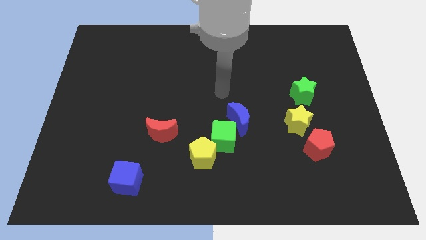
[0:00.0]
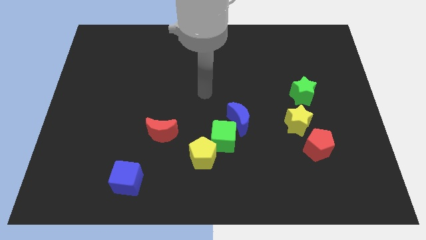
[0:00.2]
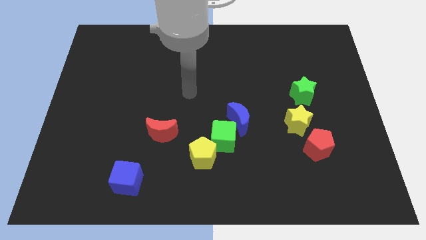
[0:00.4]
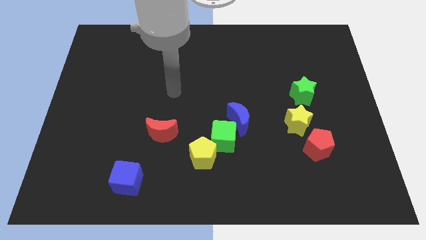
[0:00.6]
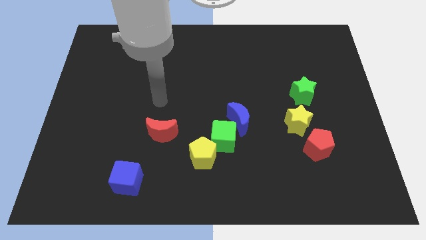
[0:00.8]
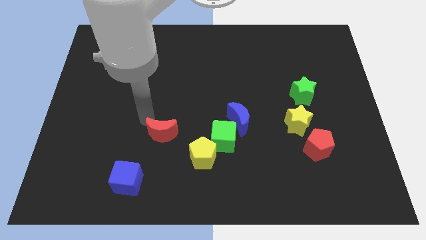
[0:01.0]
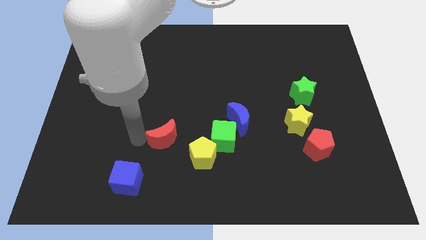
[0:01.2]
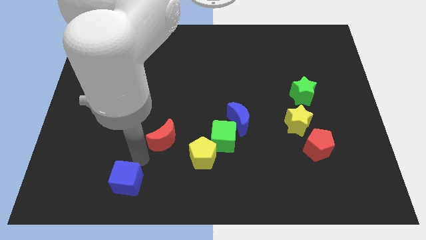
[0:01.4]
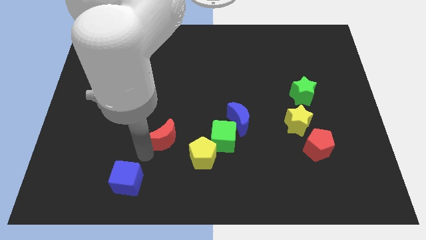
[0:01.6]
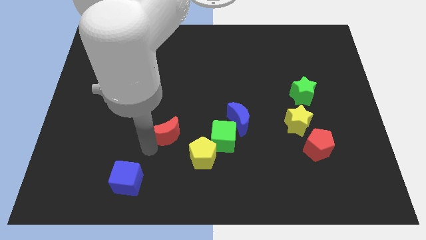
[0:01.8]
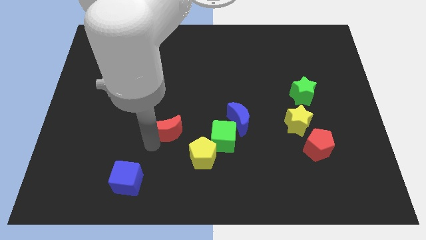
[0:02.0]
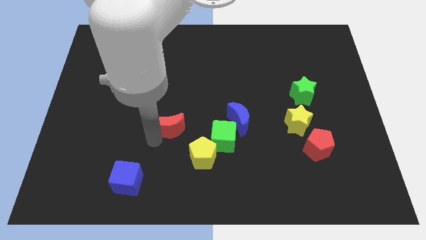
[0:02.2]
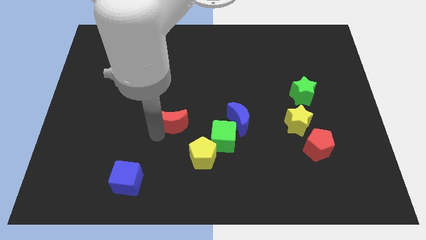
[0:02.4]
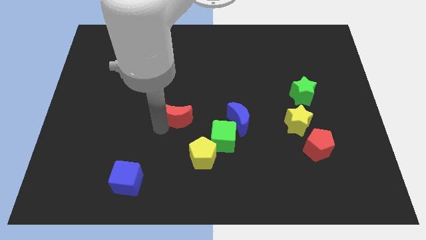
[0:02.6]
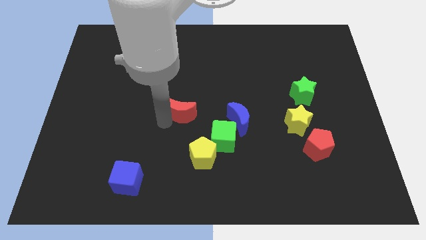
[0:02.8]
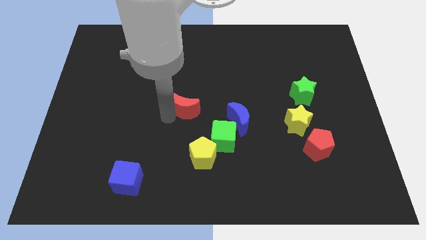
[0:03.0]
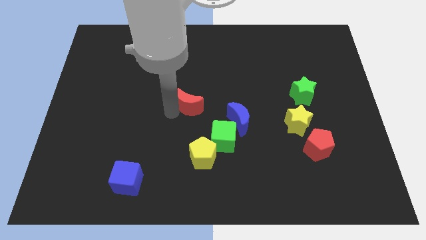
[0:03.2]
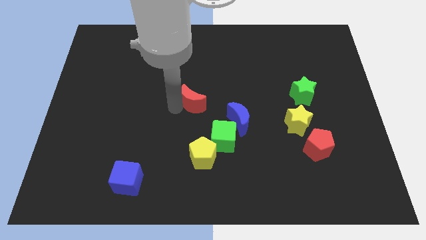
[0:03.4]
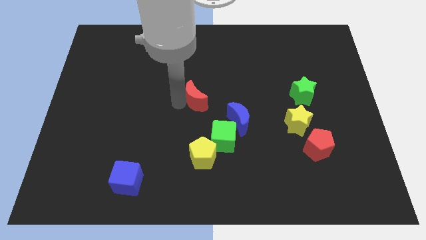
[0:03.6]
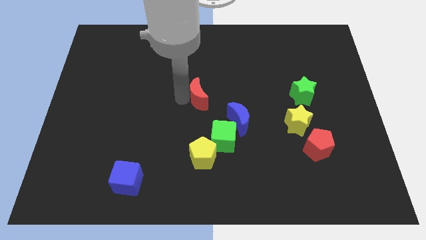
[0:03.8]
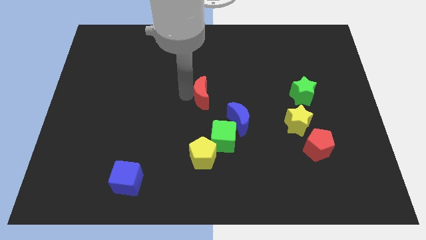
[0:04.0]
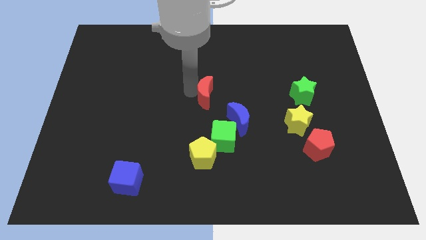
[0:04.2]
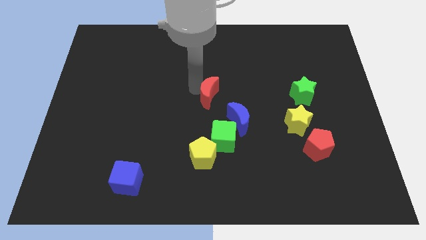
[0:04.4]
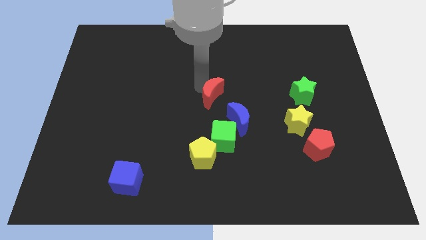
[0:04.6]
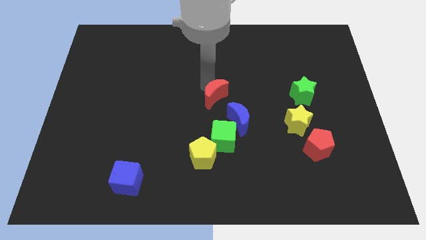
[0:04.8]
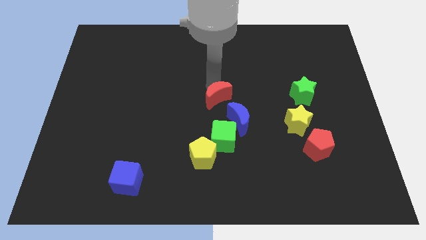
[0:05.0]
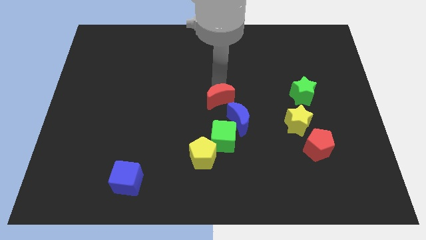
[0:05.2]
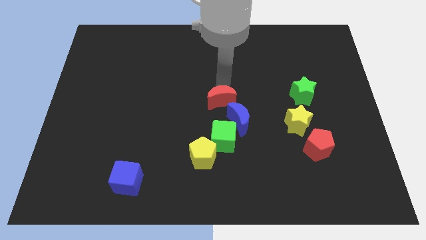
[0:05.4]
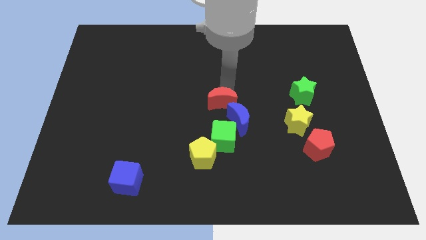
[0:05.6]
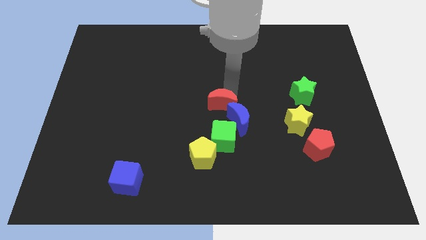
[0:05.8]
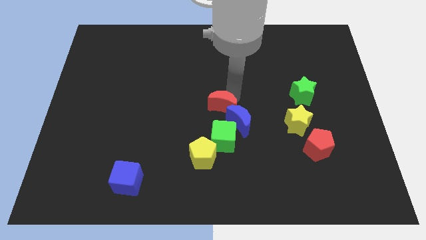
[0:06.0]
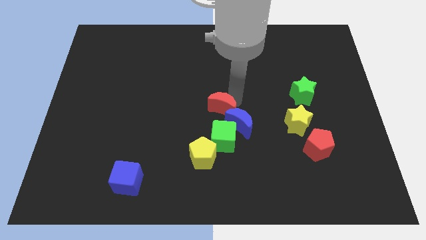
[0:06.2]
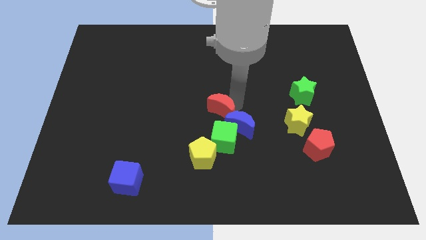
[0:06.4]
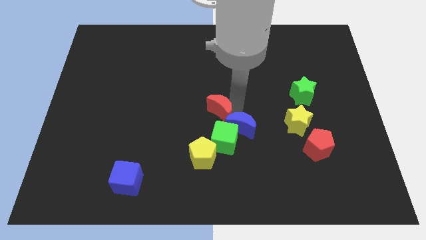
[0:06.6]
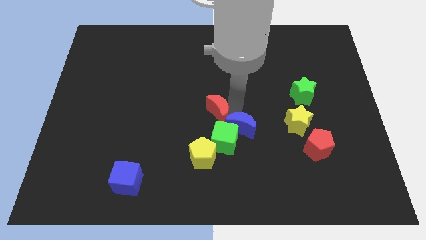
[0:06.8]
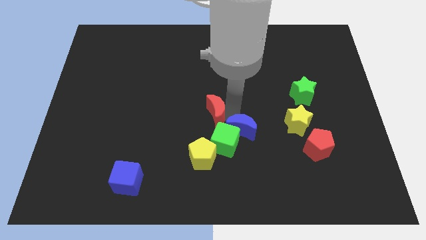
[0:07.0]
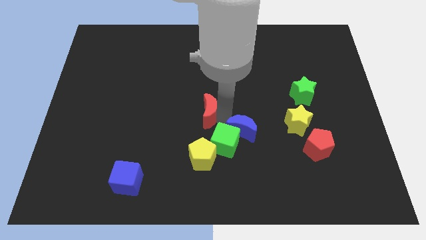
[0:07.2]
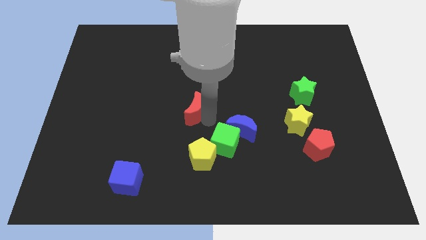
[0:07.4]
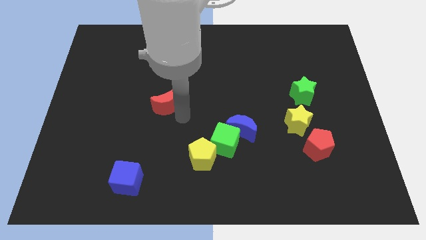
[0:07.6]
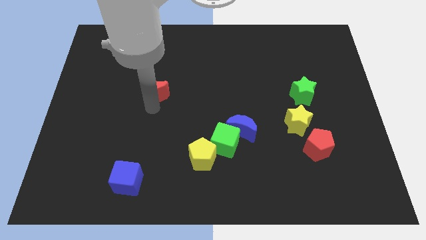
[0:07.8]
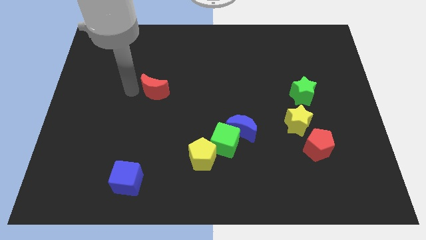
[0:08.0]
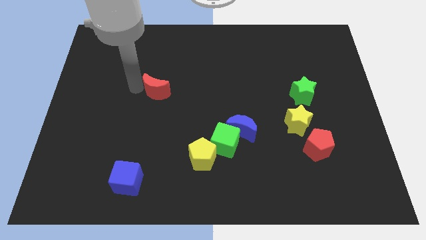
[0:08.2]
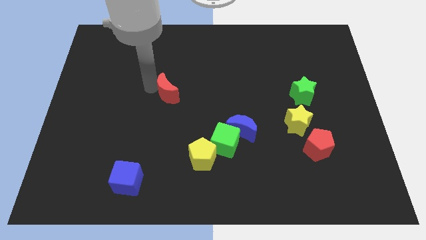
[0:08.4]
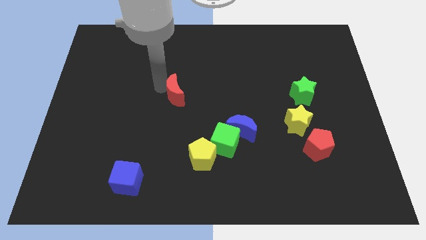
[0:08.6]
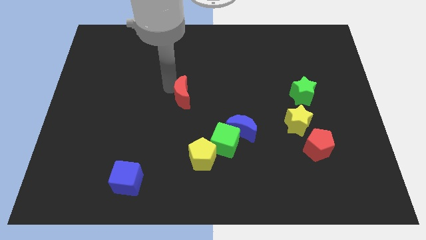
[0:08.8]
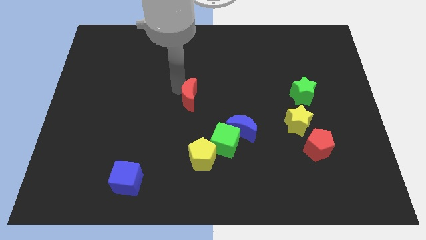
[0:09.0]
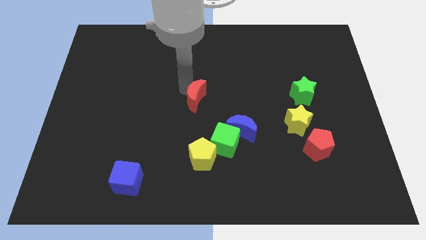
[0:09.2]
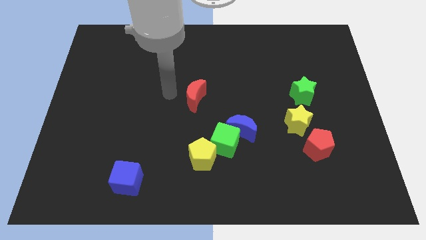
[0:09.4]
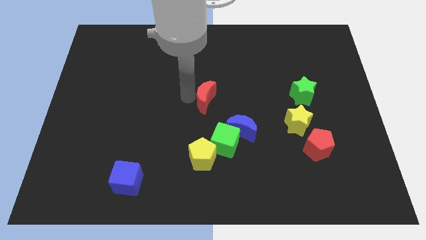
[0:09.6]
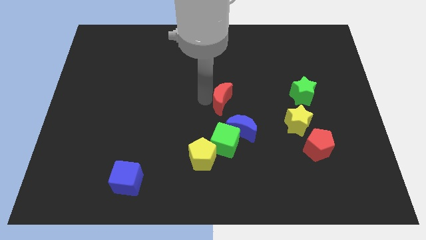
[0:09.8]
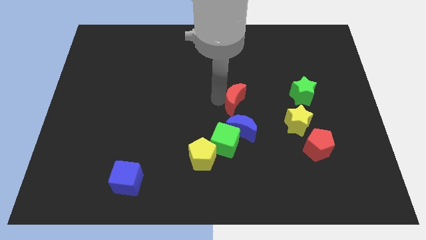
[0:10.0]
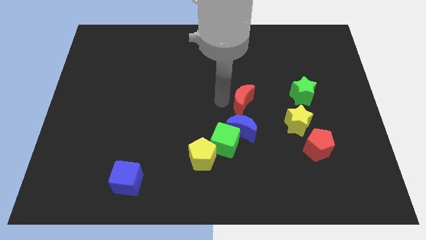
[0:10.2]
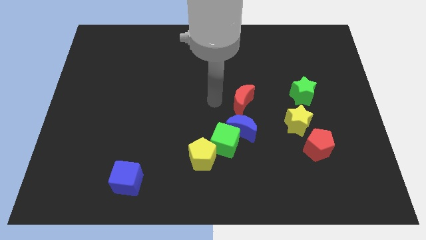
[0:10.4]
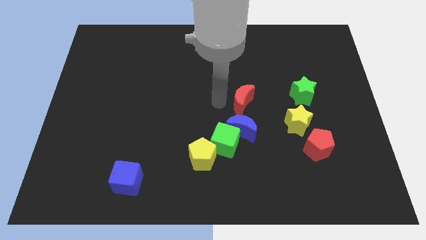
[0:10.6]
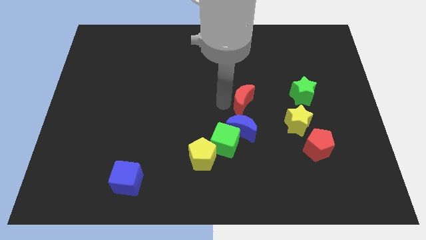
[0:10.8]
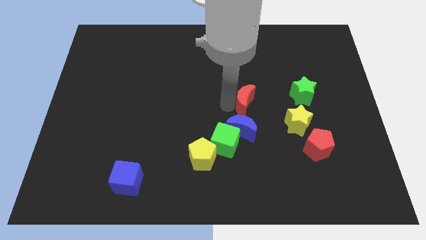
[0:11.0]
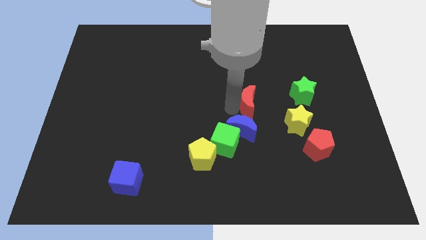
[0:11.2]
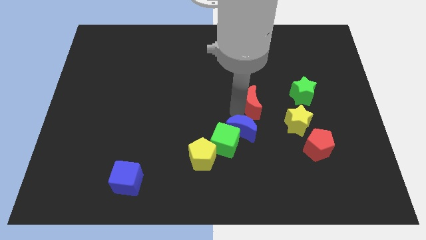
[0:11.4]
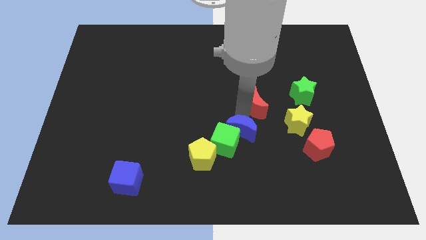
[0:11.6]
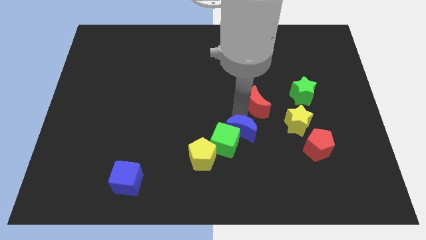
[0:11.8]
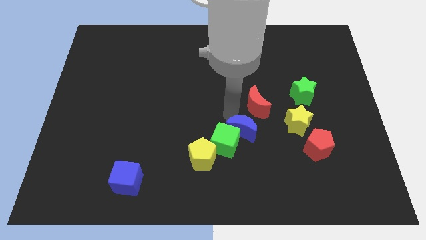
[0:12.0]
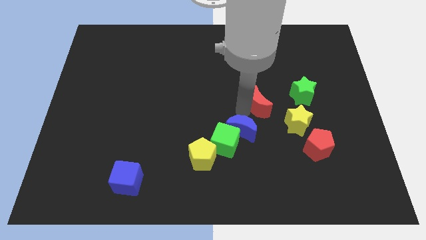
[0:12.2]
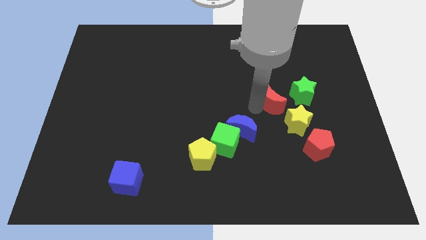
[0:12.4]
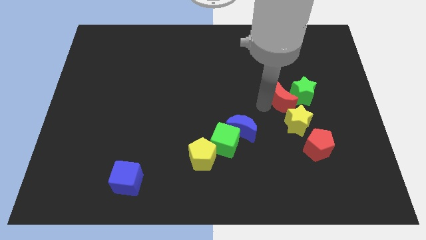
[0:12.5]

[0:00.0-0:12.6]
move the red moon towards the green star

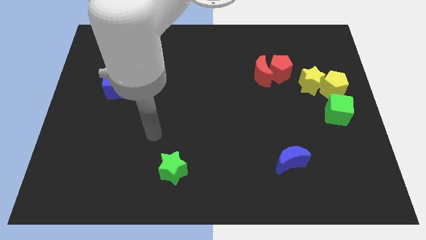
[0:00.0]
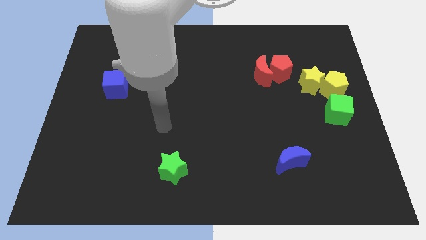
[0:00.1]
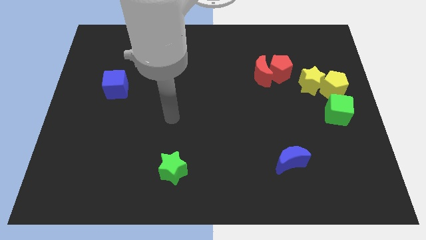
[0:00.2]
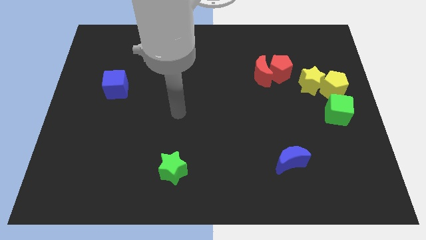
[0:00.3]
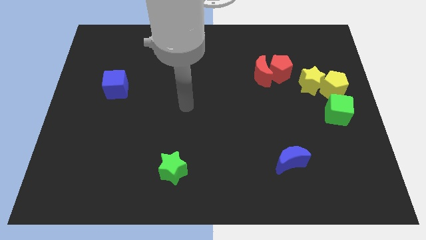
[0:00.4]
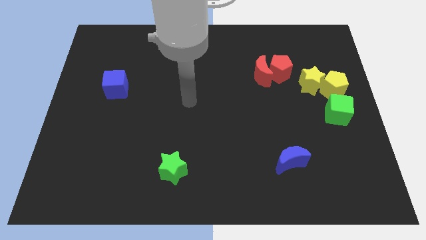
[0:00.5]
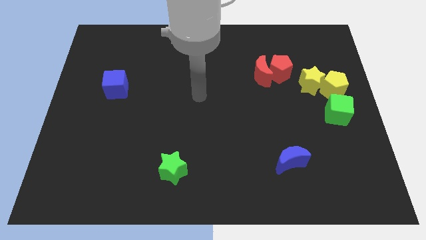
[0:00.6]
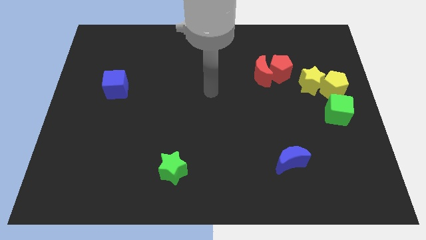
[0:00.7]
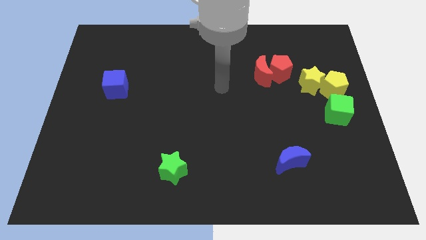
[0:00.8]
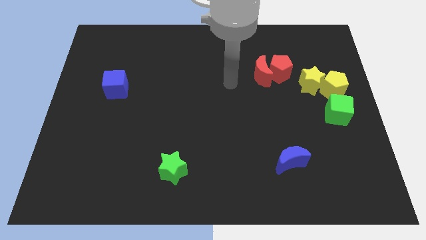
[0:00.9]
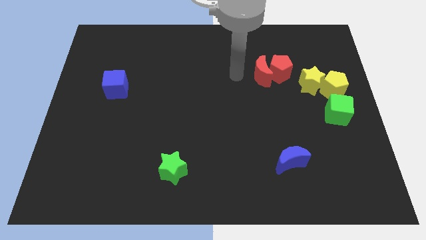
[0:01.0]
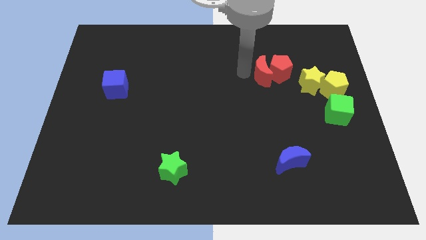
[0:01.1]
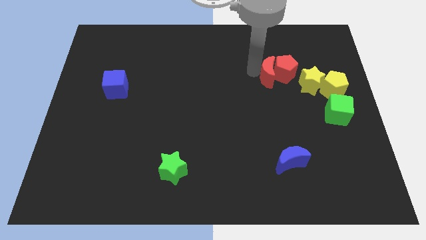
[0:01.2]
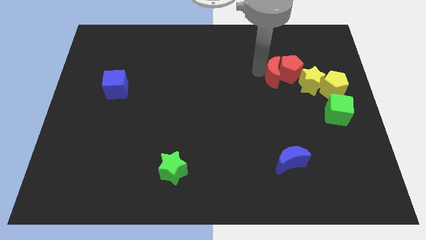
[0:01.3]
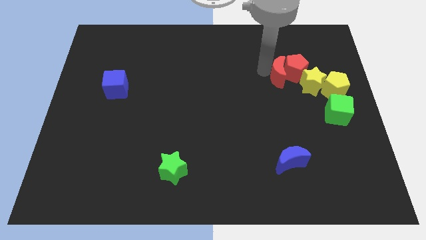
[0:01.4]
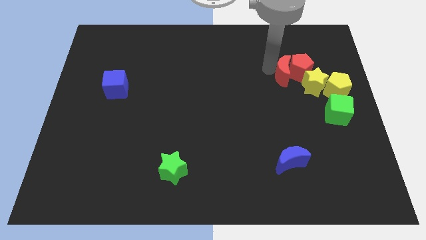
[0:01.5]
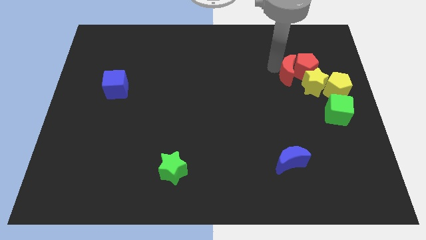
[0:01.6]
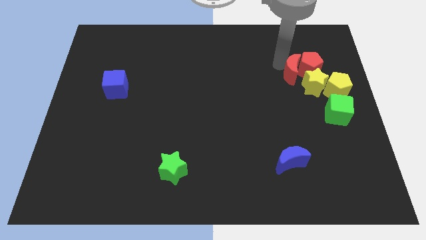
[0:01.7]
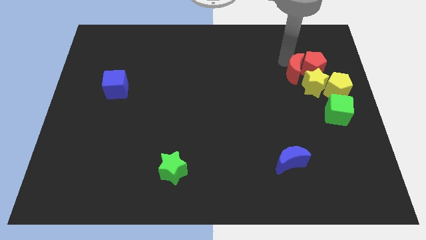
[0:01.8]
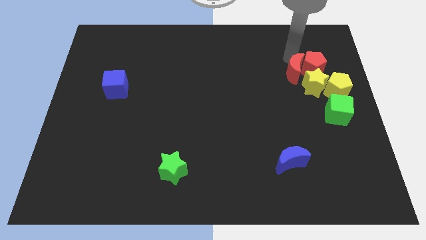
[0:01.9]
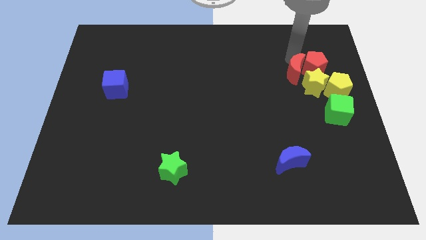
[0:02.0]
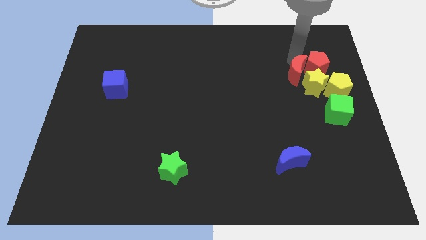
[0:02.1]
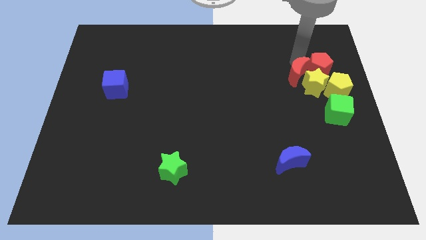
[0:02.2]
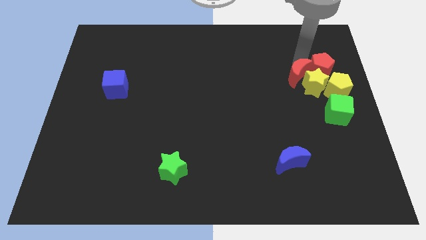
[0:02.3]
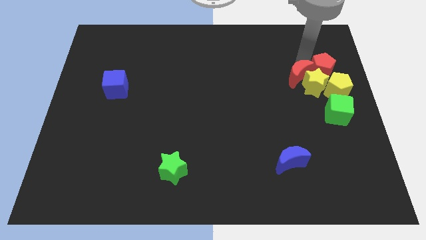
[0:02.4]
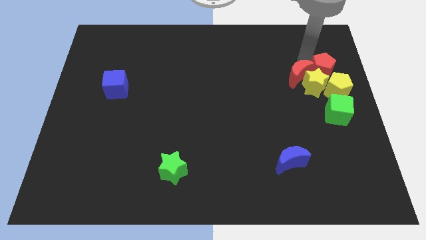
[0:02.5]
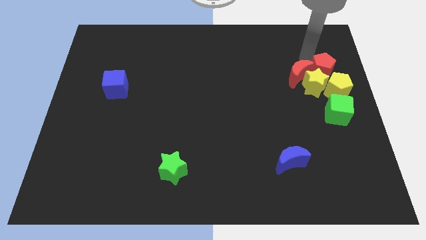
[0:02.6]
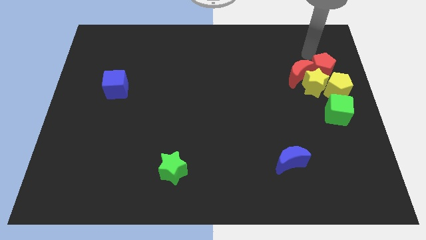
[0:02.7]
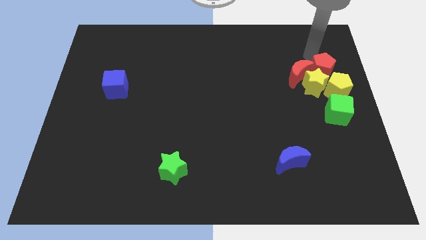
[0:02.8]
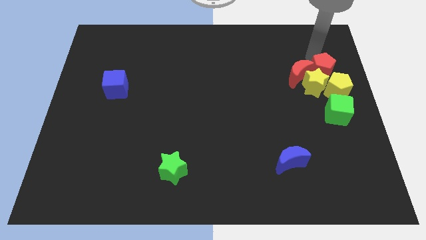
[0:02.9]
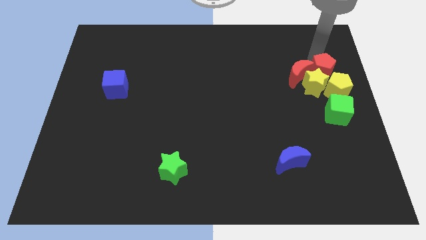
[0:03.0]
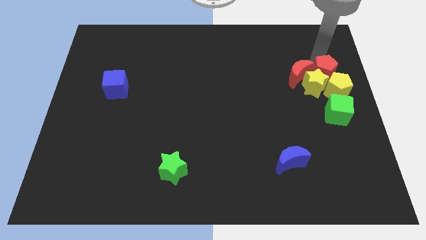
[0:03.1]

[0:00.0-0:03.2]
put the red pentagon next to the yellow pentagon
